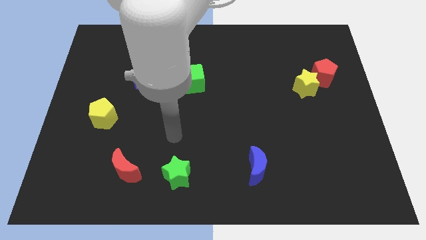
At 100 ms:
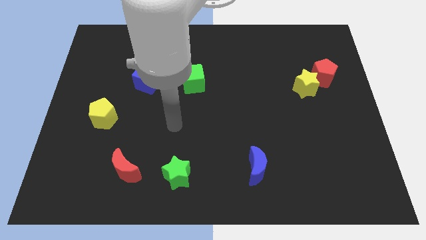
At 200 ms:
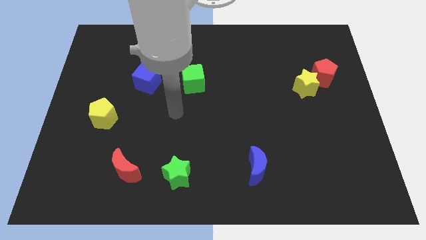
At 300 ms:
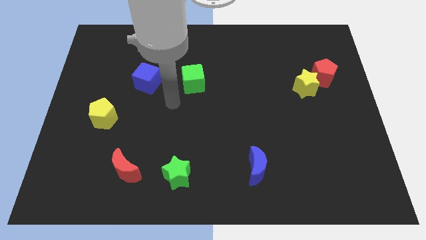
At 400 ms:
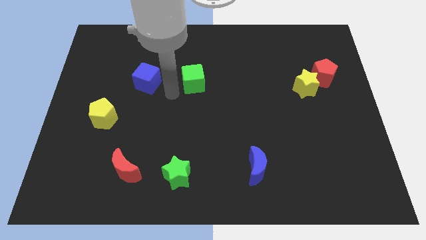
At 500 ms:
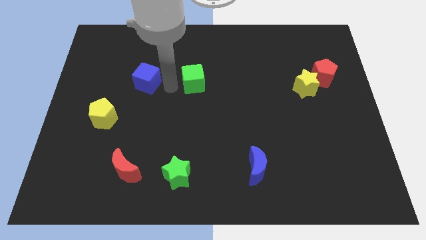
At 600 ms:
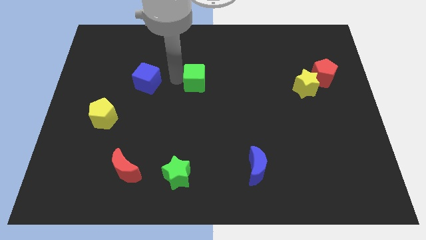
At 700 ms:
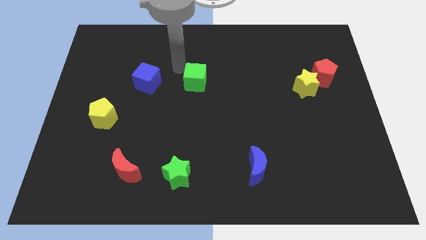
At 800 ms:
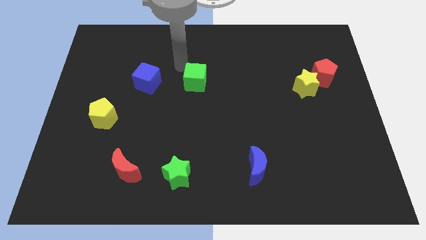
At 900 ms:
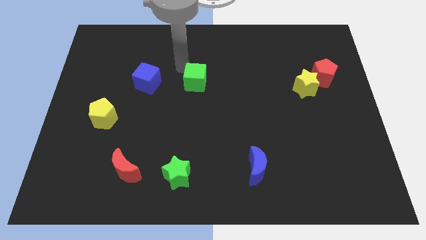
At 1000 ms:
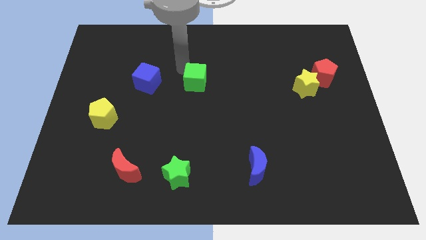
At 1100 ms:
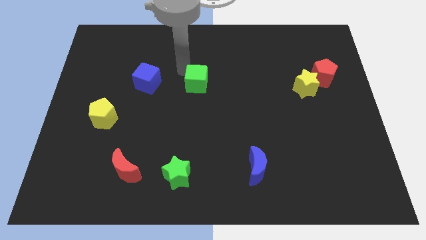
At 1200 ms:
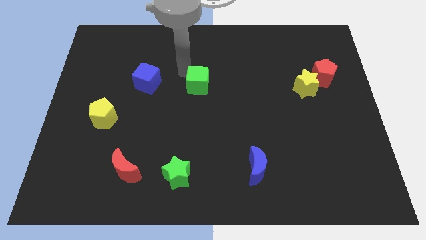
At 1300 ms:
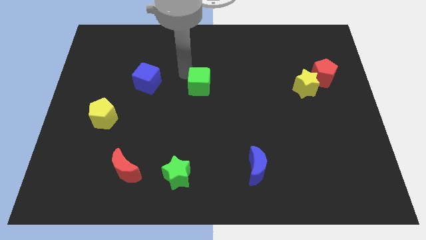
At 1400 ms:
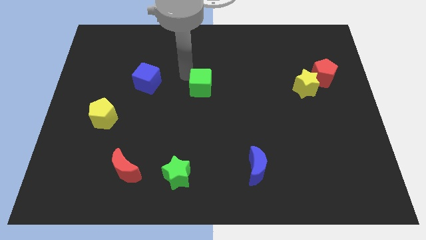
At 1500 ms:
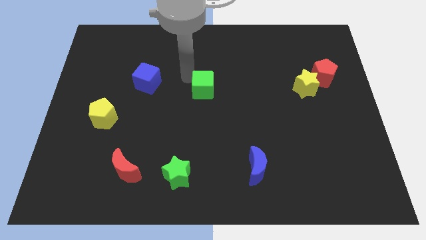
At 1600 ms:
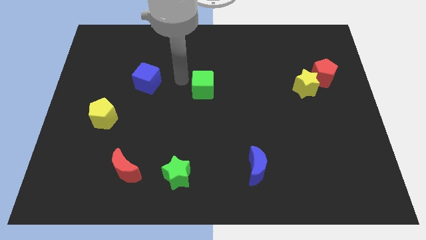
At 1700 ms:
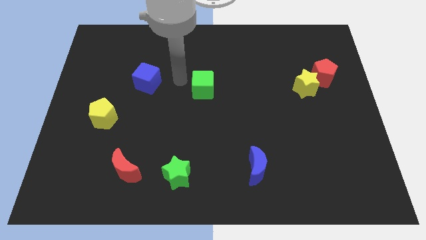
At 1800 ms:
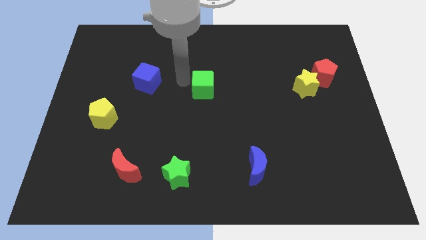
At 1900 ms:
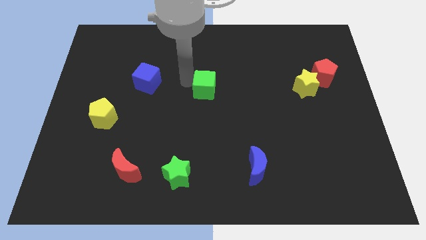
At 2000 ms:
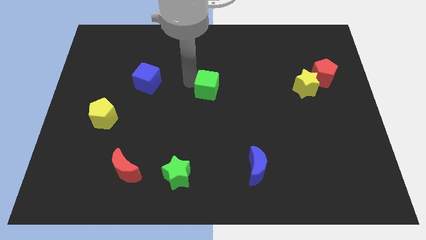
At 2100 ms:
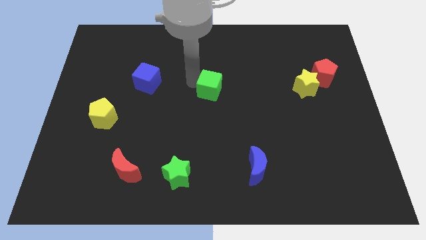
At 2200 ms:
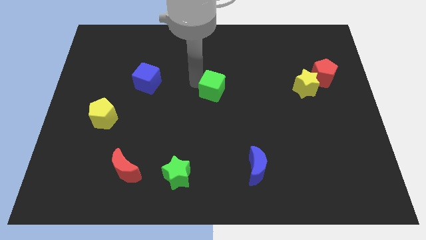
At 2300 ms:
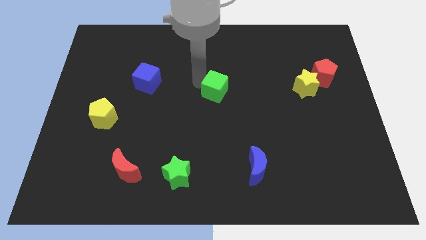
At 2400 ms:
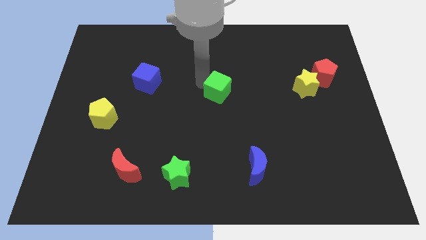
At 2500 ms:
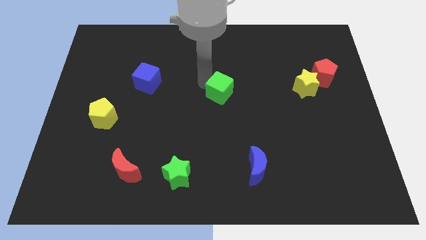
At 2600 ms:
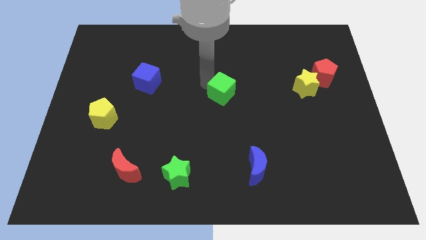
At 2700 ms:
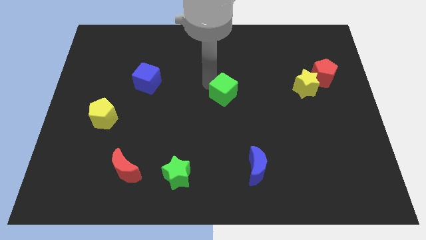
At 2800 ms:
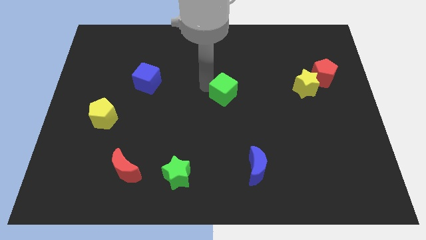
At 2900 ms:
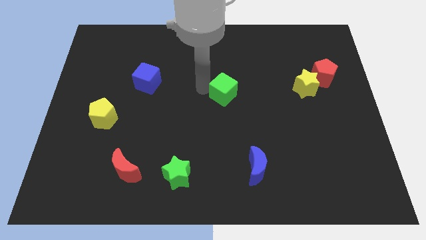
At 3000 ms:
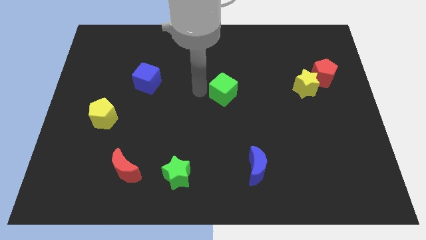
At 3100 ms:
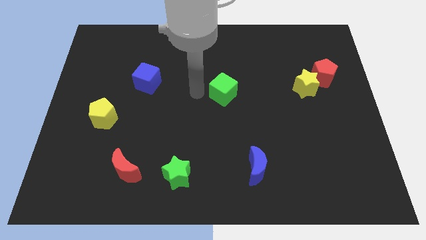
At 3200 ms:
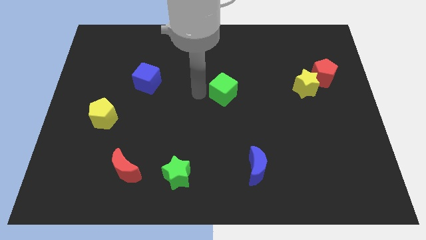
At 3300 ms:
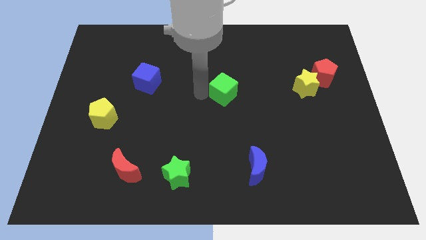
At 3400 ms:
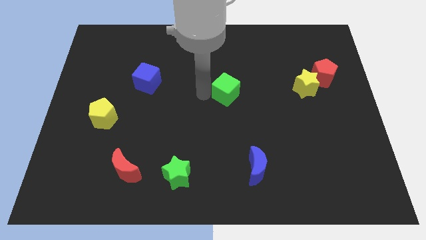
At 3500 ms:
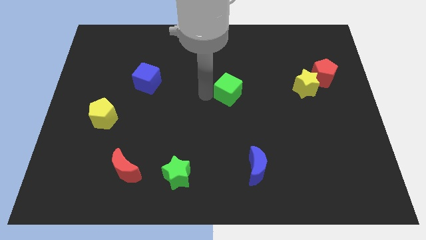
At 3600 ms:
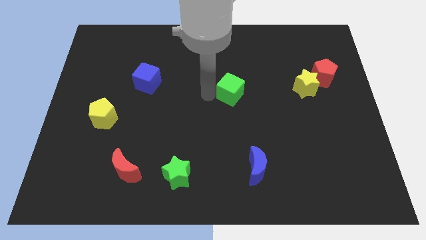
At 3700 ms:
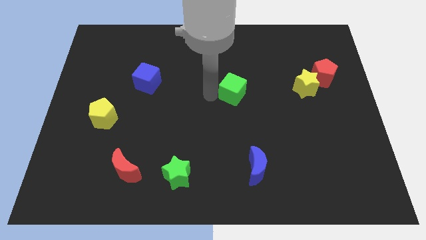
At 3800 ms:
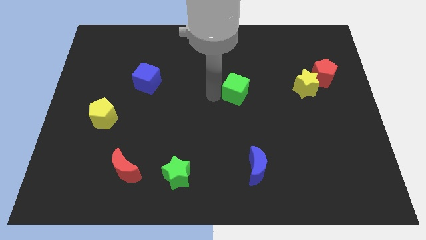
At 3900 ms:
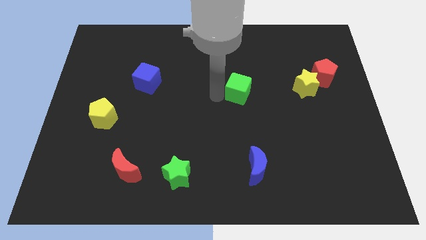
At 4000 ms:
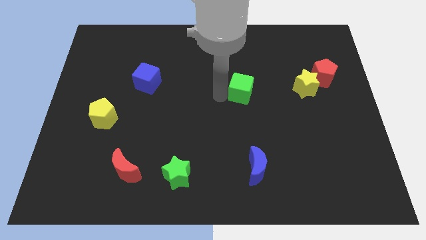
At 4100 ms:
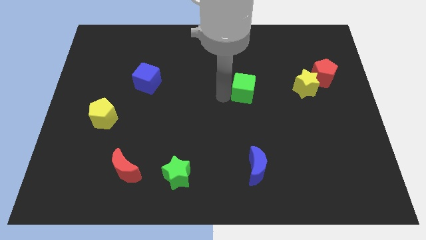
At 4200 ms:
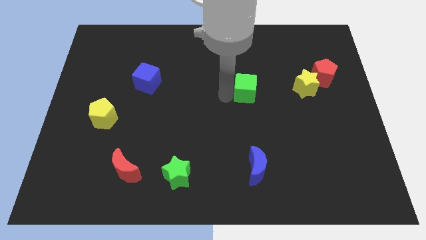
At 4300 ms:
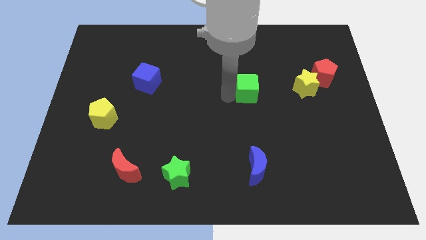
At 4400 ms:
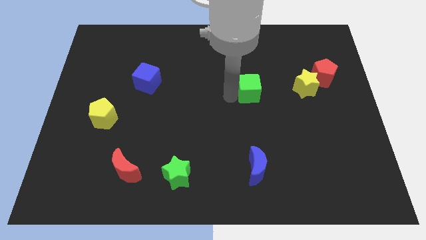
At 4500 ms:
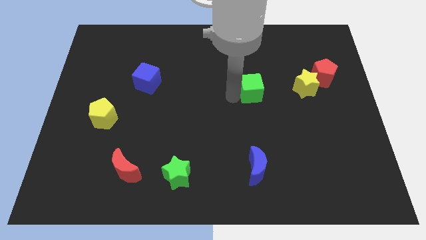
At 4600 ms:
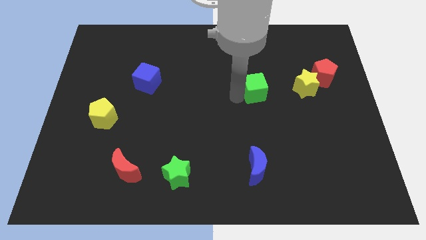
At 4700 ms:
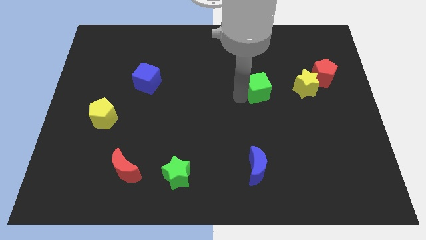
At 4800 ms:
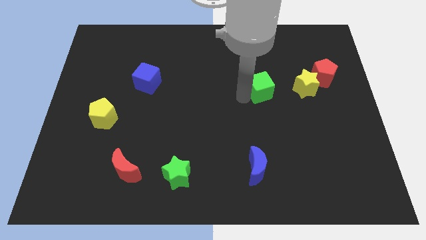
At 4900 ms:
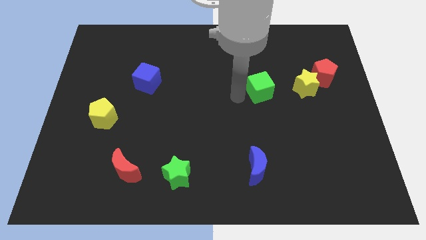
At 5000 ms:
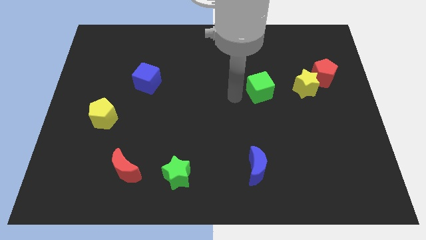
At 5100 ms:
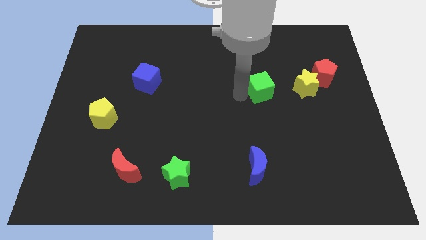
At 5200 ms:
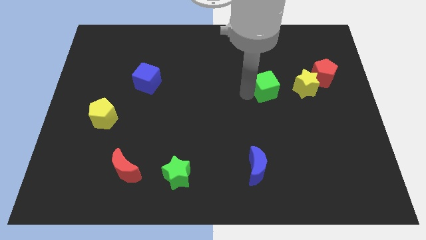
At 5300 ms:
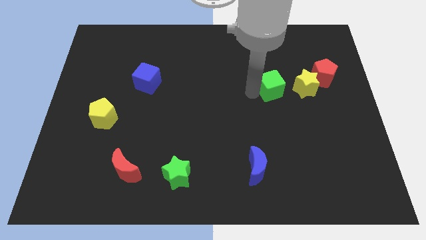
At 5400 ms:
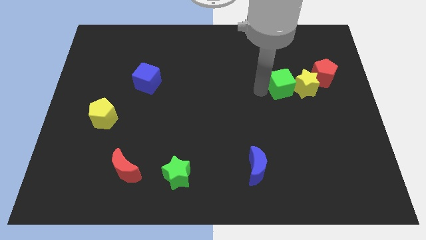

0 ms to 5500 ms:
slide the green cube to the yellow star

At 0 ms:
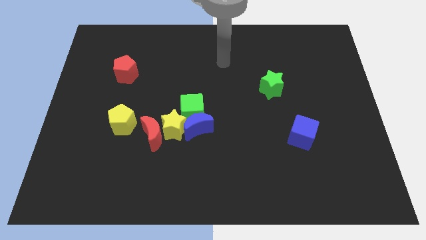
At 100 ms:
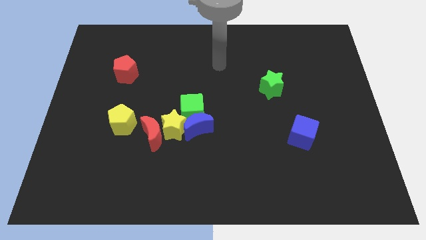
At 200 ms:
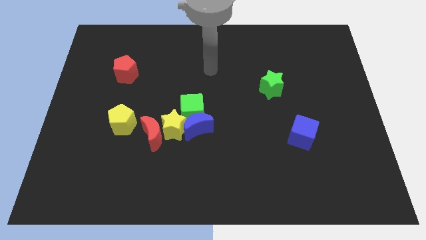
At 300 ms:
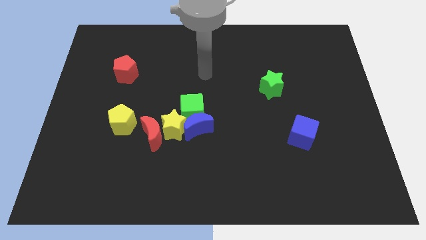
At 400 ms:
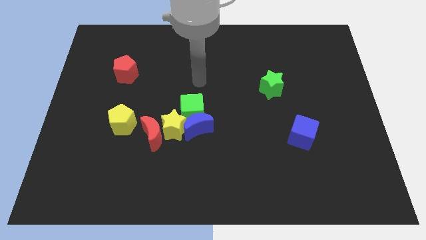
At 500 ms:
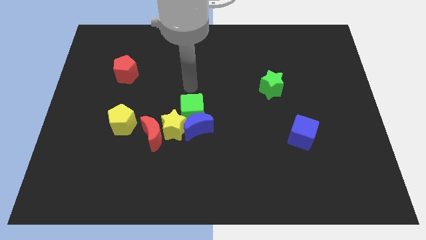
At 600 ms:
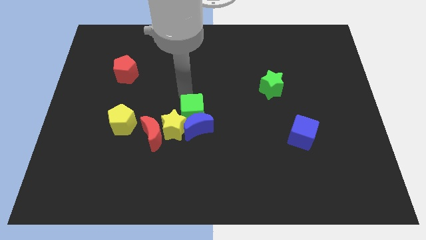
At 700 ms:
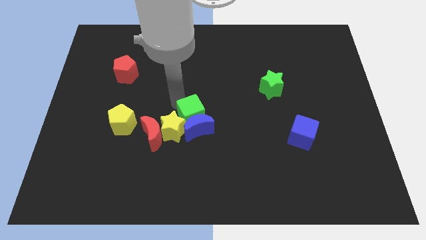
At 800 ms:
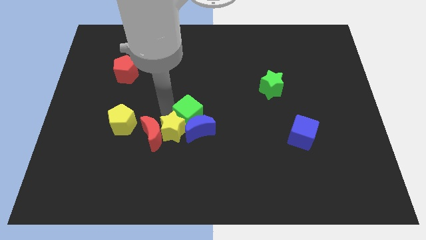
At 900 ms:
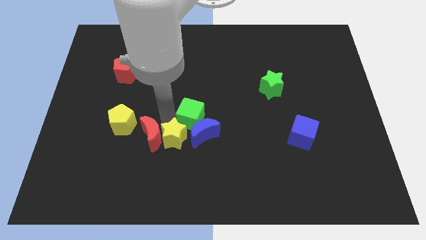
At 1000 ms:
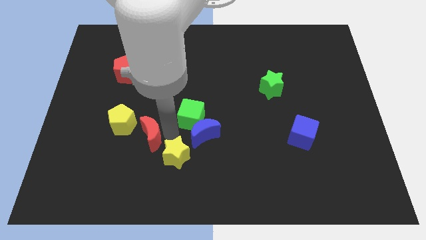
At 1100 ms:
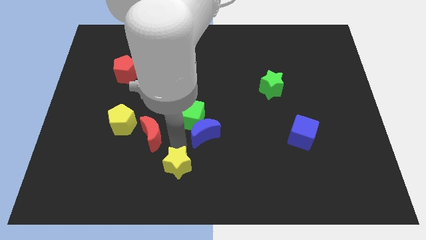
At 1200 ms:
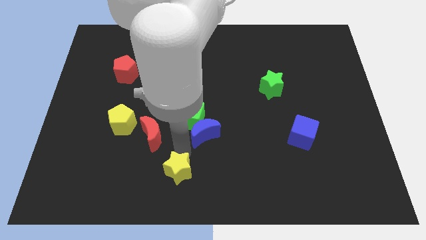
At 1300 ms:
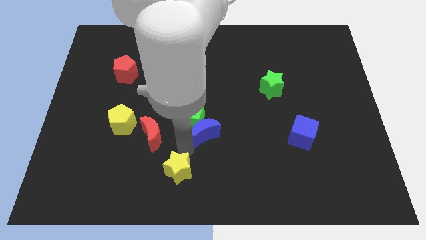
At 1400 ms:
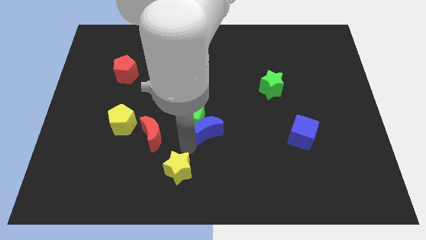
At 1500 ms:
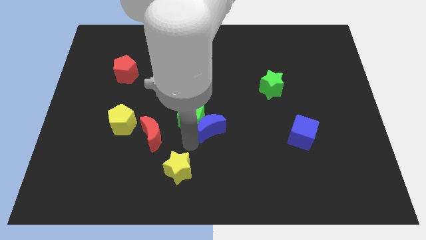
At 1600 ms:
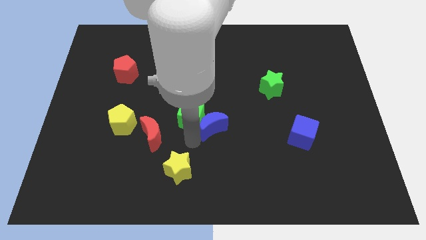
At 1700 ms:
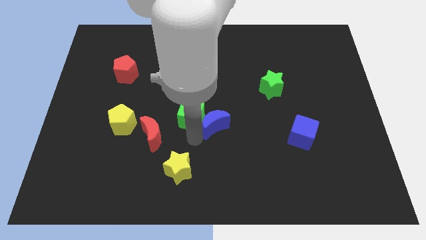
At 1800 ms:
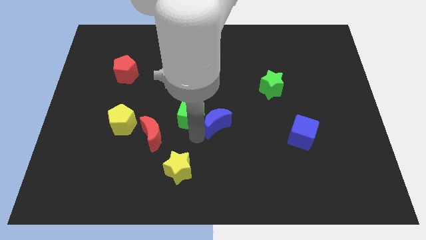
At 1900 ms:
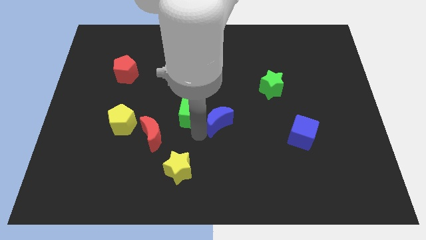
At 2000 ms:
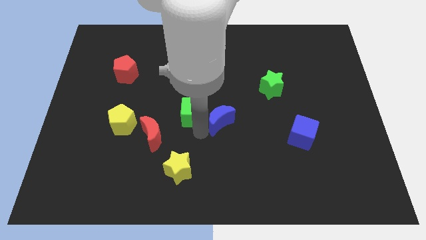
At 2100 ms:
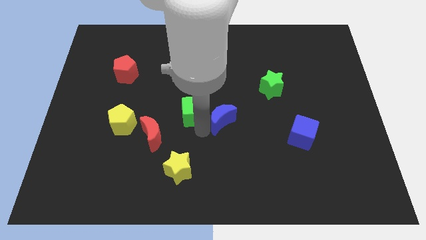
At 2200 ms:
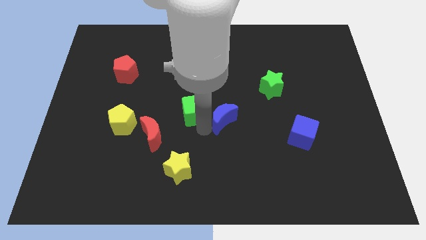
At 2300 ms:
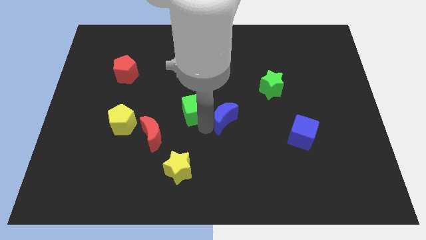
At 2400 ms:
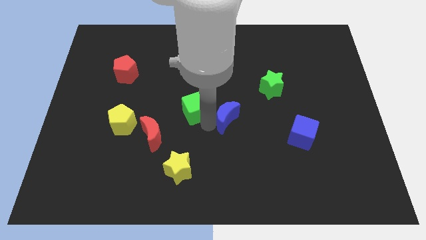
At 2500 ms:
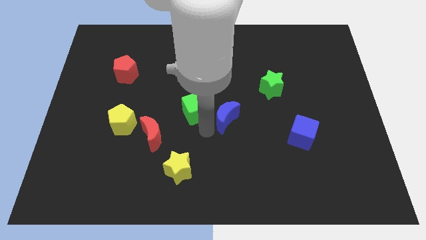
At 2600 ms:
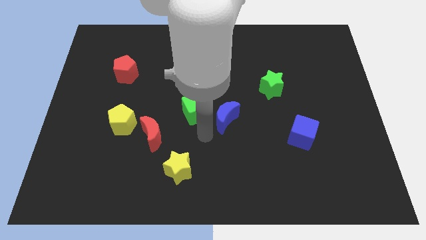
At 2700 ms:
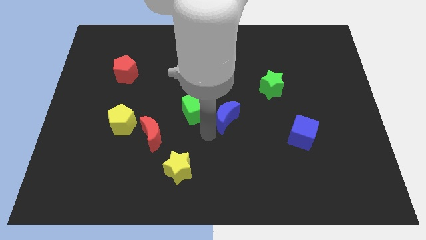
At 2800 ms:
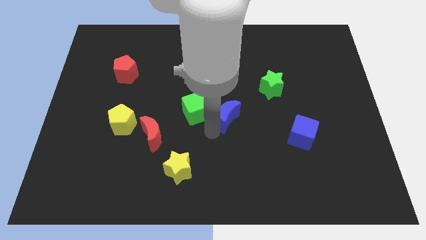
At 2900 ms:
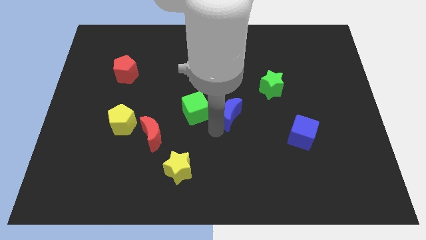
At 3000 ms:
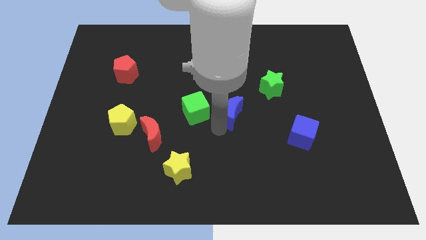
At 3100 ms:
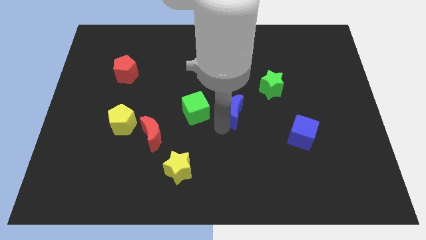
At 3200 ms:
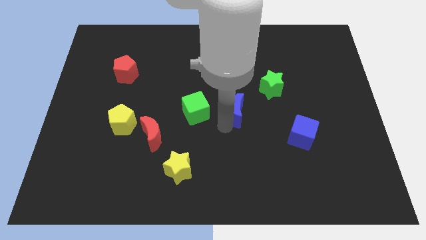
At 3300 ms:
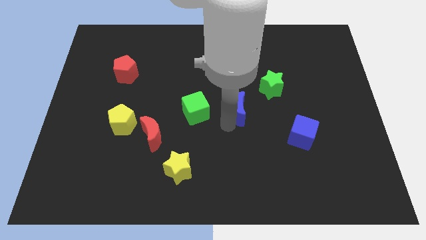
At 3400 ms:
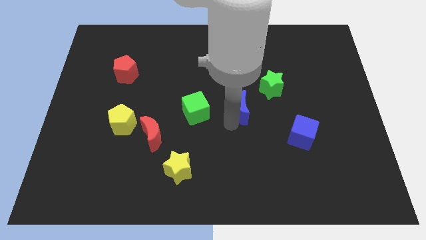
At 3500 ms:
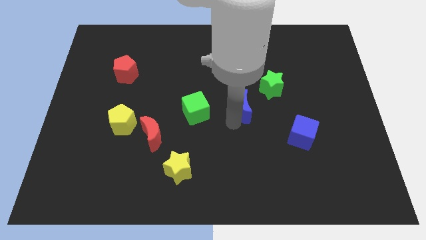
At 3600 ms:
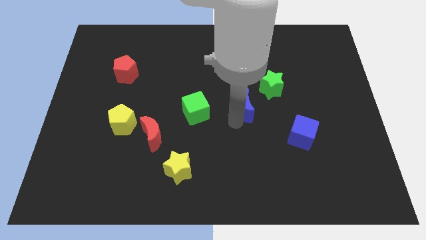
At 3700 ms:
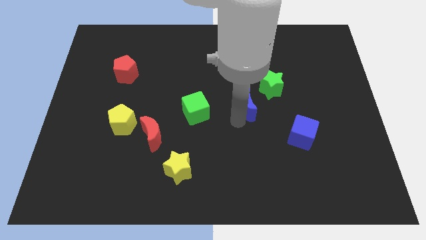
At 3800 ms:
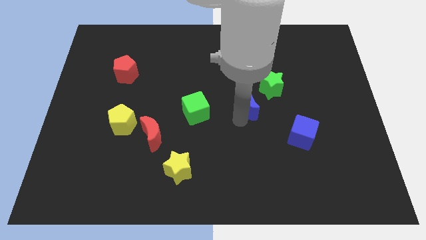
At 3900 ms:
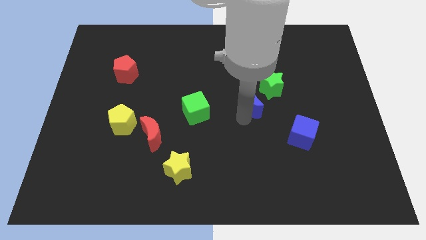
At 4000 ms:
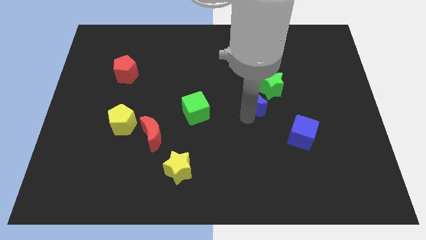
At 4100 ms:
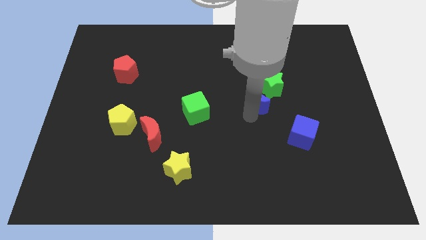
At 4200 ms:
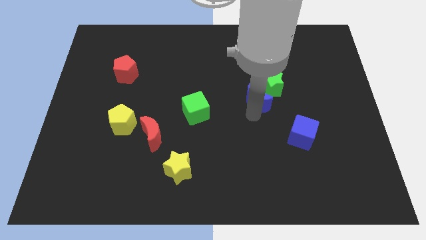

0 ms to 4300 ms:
put the blue moon to the green star
